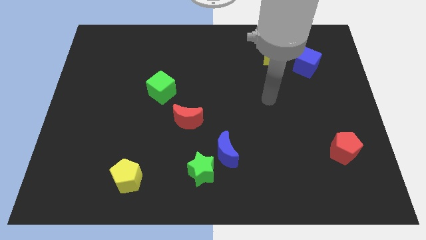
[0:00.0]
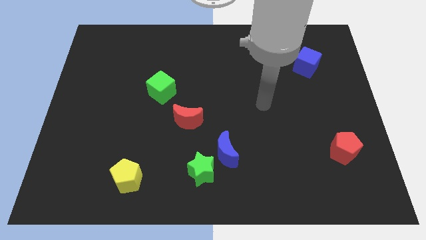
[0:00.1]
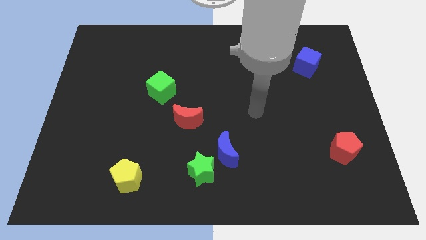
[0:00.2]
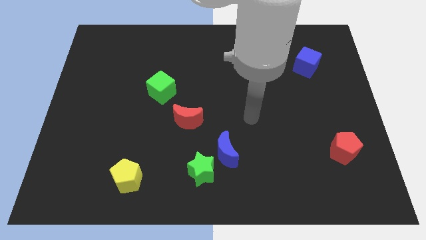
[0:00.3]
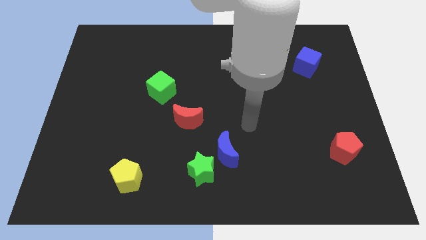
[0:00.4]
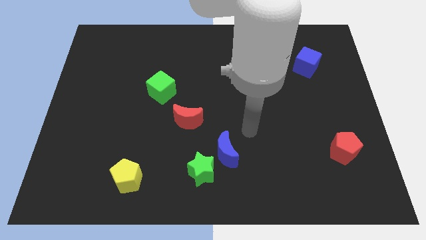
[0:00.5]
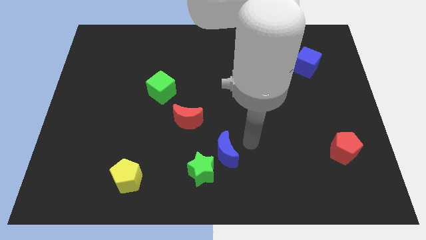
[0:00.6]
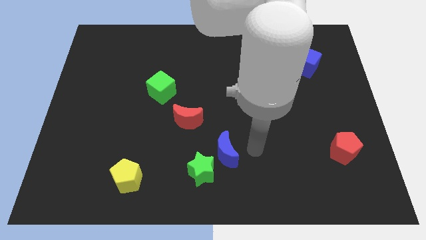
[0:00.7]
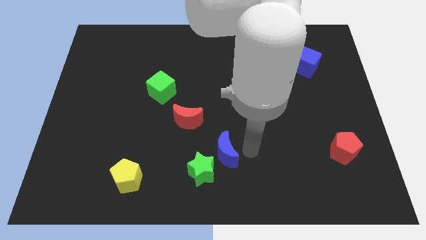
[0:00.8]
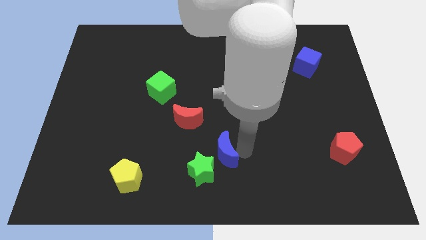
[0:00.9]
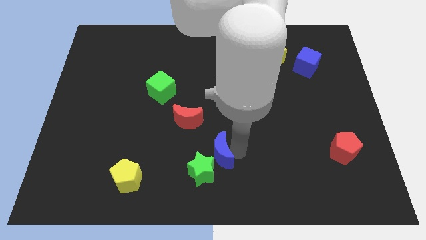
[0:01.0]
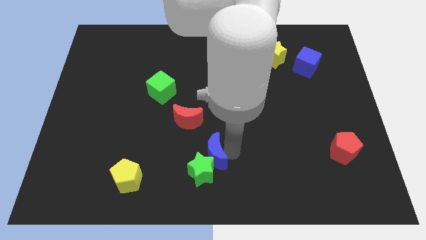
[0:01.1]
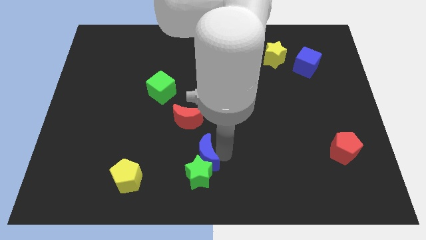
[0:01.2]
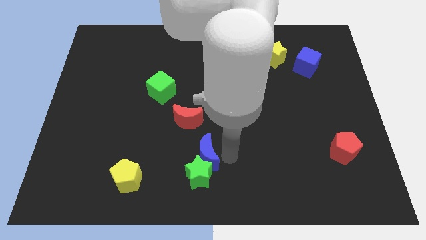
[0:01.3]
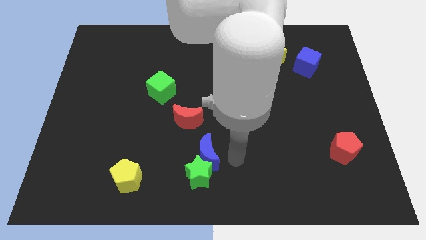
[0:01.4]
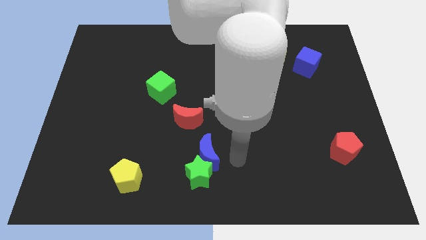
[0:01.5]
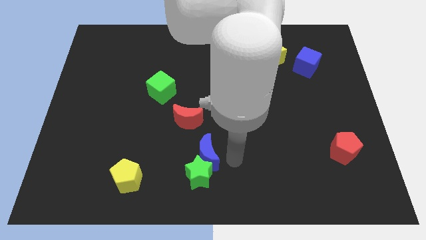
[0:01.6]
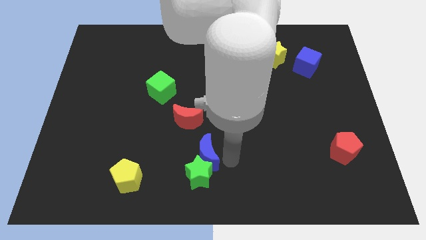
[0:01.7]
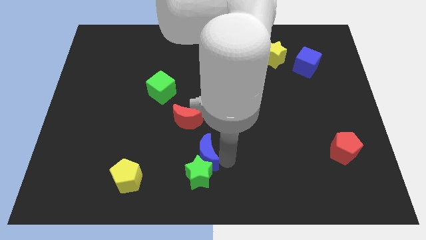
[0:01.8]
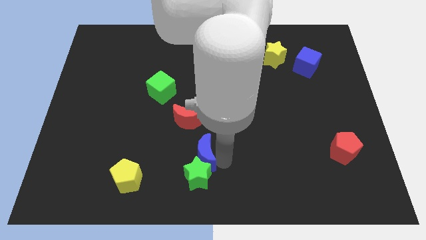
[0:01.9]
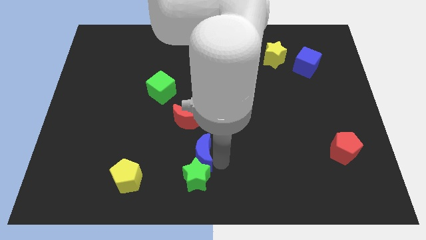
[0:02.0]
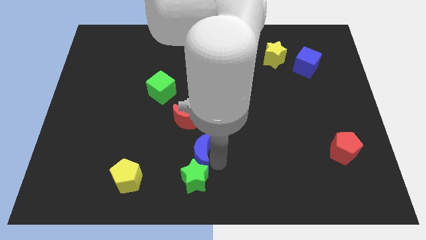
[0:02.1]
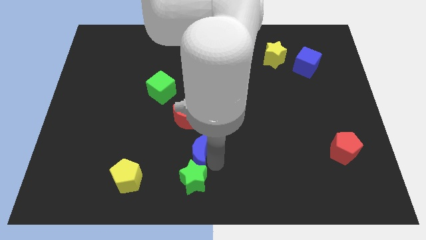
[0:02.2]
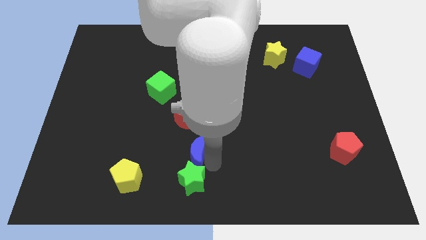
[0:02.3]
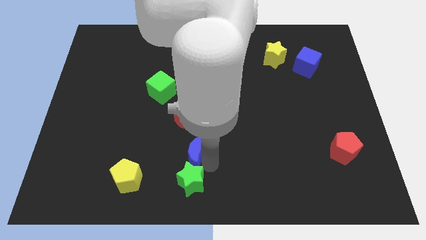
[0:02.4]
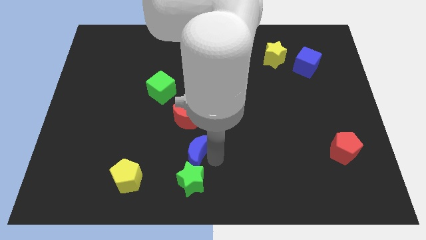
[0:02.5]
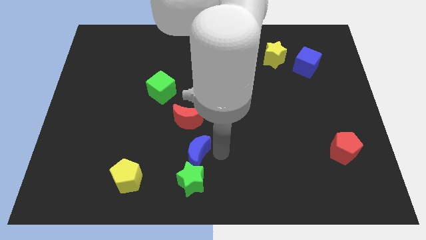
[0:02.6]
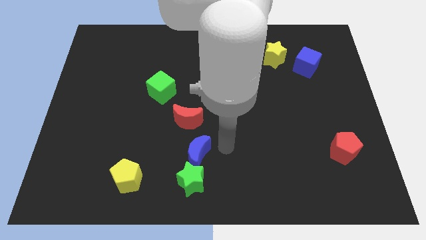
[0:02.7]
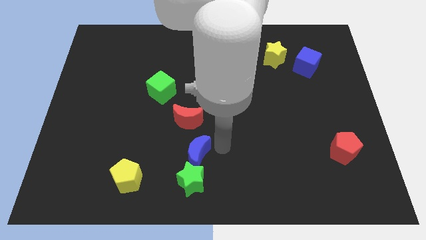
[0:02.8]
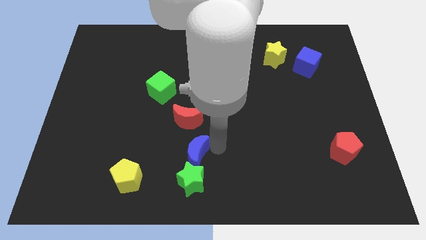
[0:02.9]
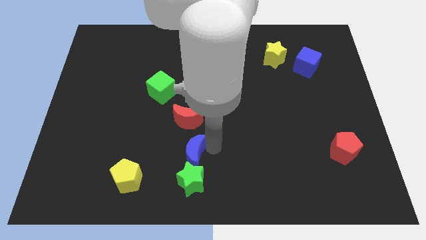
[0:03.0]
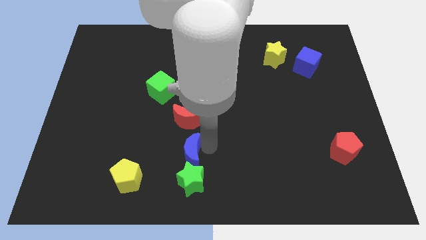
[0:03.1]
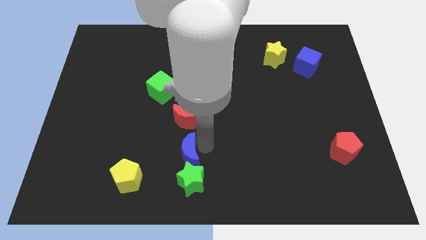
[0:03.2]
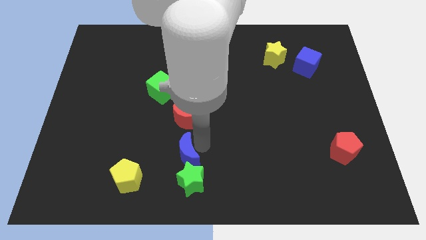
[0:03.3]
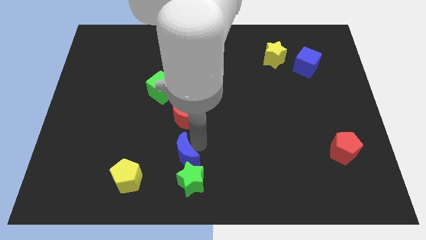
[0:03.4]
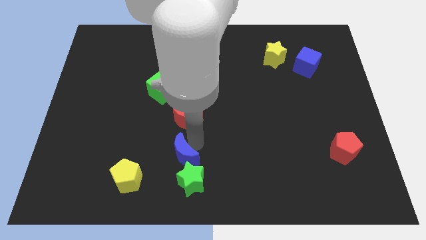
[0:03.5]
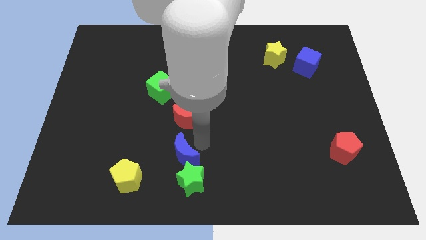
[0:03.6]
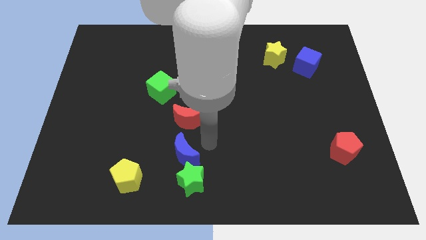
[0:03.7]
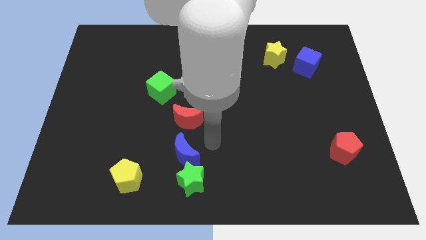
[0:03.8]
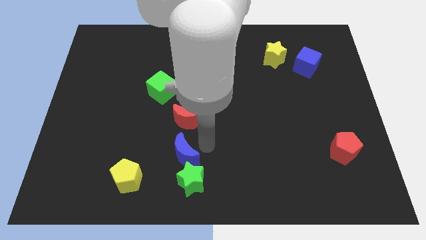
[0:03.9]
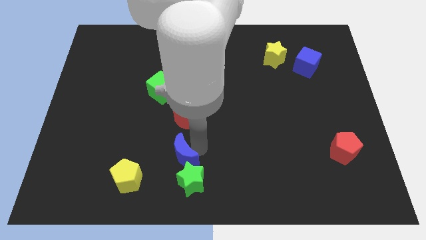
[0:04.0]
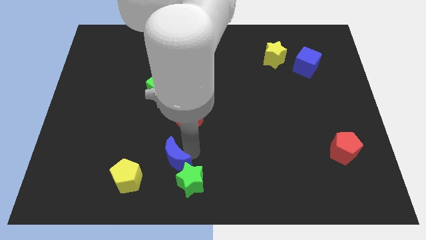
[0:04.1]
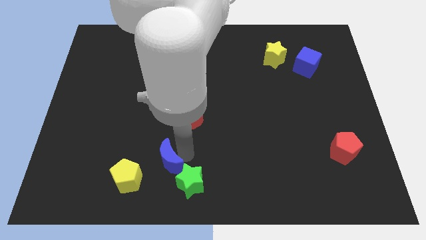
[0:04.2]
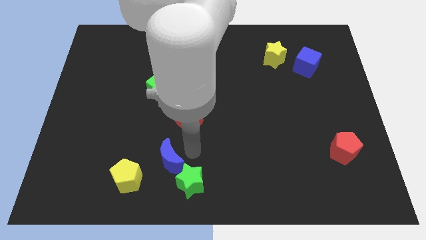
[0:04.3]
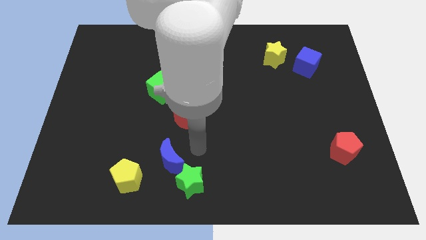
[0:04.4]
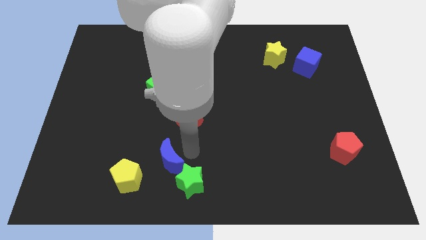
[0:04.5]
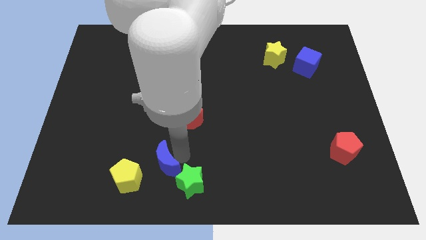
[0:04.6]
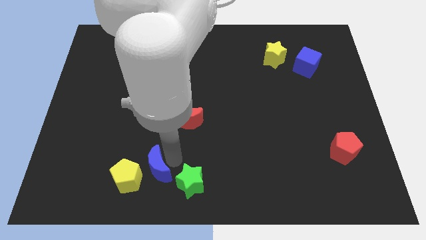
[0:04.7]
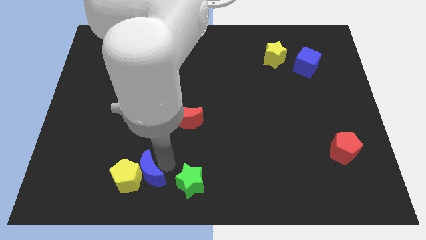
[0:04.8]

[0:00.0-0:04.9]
put the blue moon towards the yellow pentagon

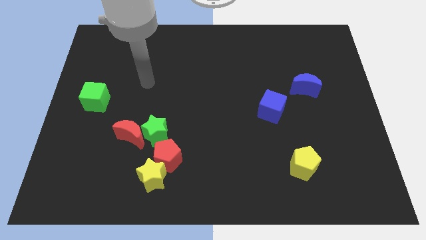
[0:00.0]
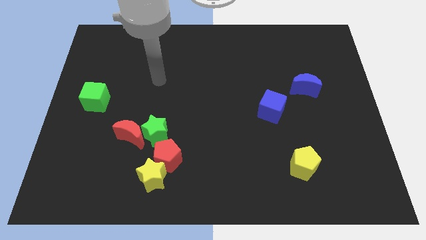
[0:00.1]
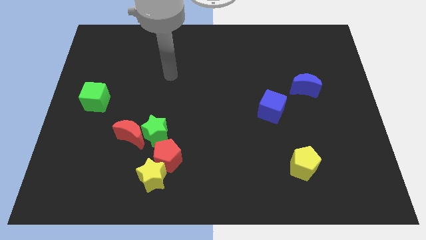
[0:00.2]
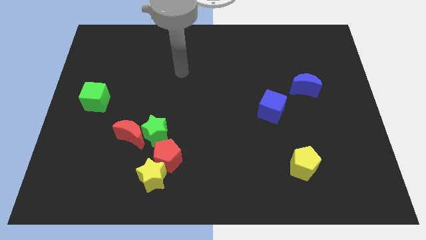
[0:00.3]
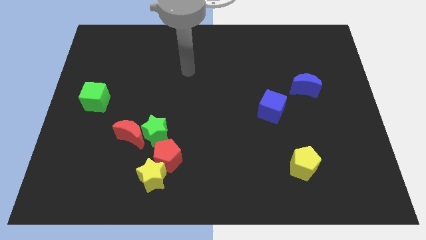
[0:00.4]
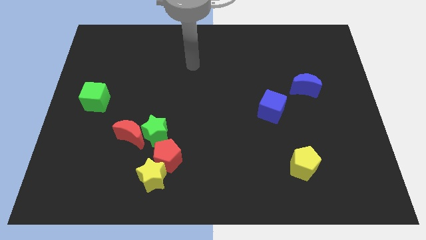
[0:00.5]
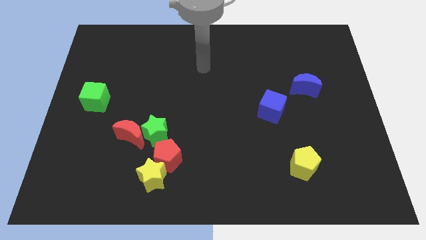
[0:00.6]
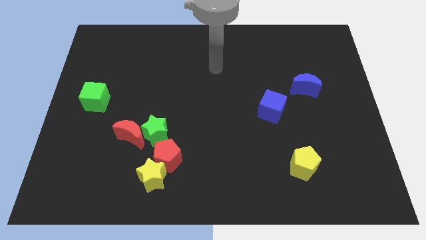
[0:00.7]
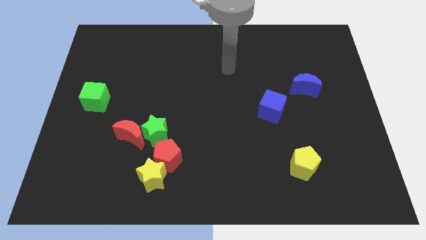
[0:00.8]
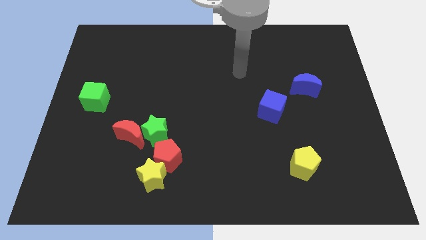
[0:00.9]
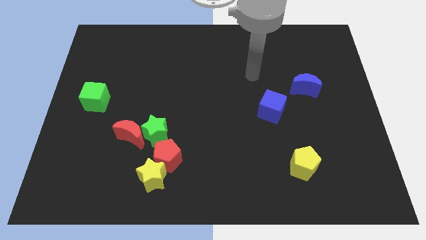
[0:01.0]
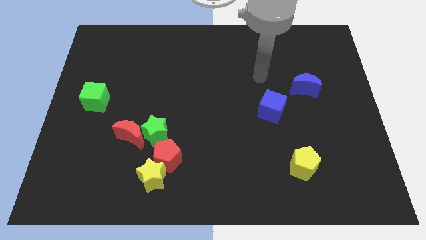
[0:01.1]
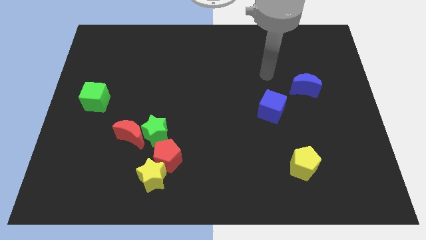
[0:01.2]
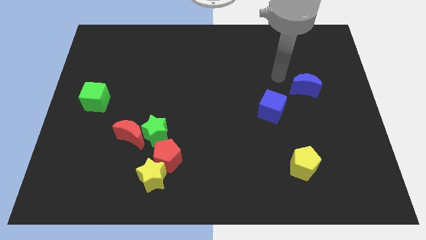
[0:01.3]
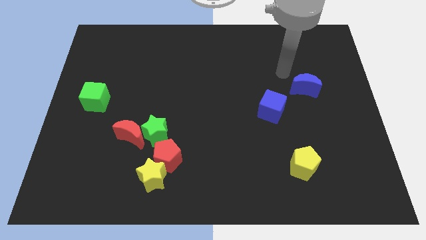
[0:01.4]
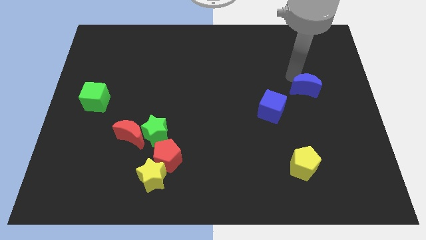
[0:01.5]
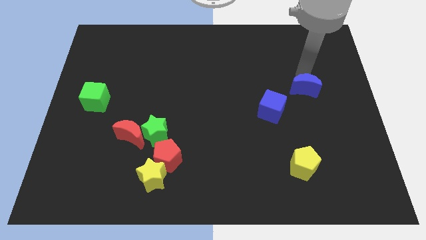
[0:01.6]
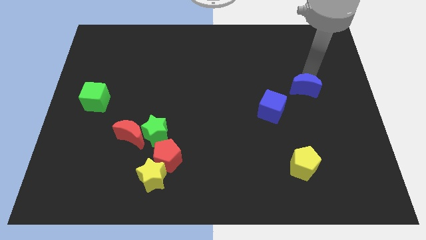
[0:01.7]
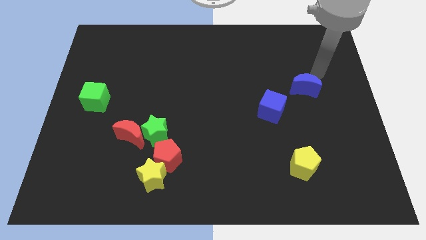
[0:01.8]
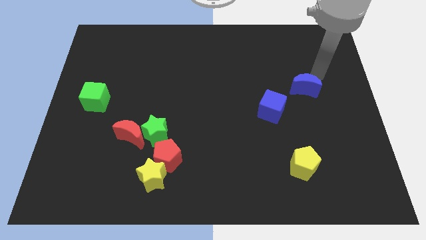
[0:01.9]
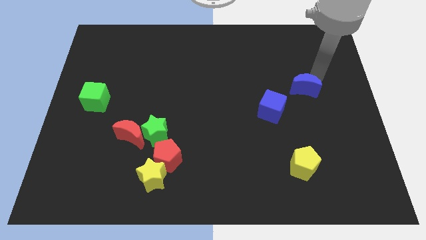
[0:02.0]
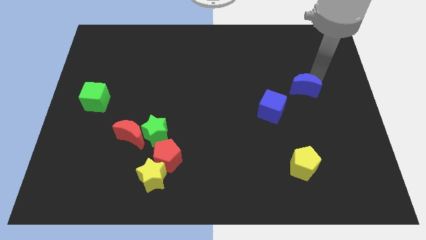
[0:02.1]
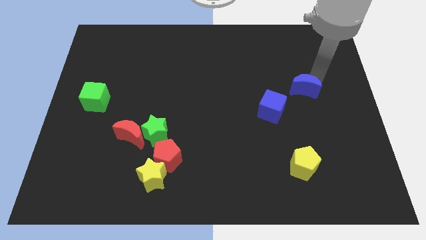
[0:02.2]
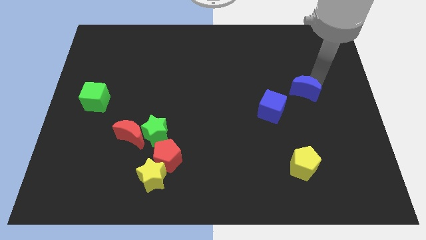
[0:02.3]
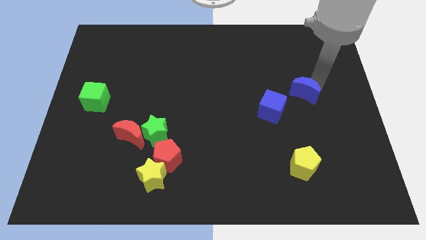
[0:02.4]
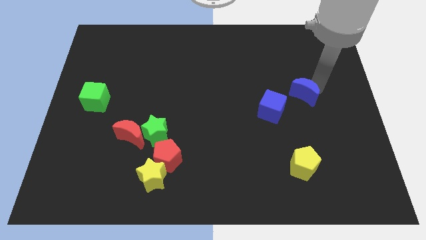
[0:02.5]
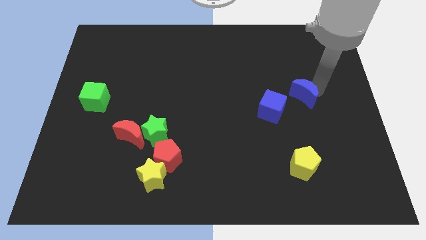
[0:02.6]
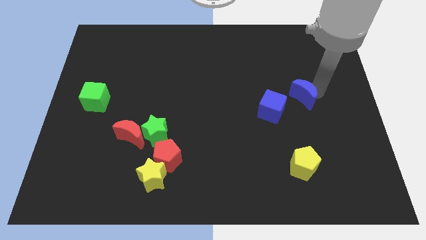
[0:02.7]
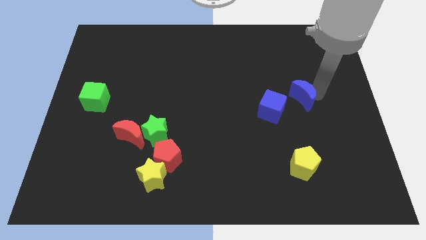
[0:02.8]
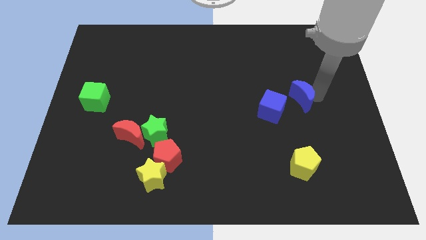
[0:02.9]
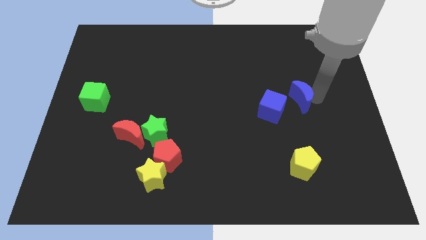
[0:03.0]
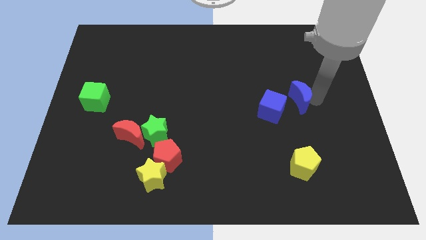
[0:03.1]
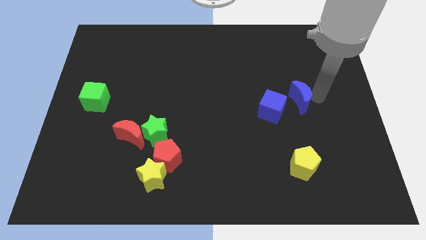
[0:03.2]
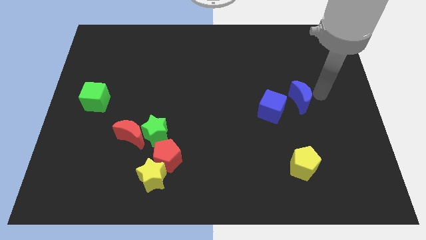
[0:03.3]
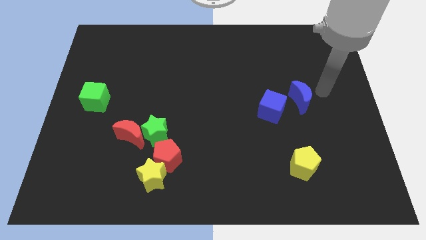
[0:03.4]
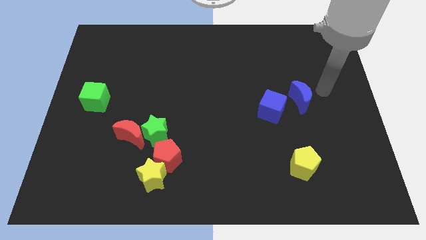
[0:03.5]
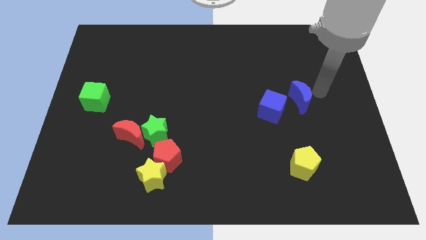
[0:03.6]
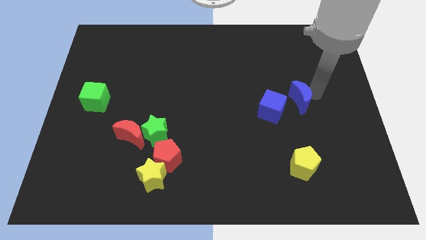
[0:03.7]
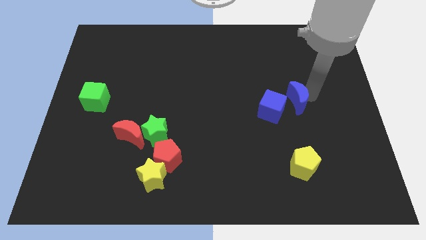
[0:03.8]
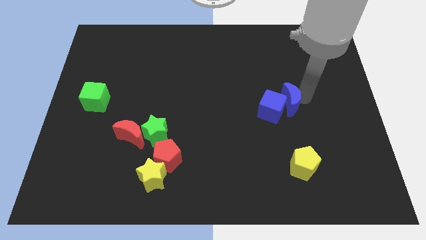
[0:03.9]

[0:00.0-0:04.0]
push the blue moon next to the blue cube
